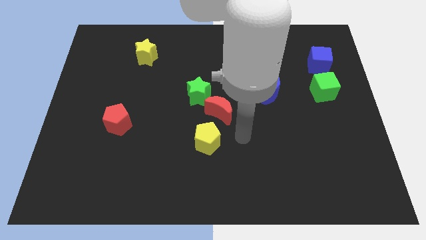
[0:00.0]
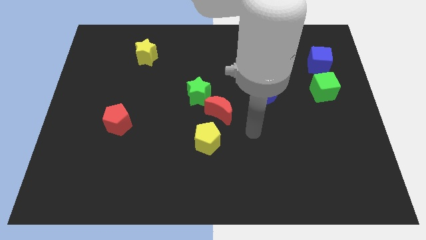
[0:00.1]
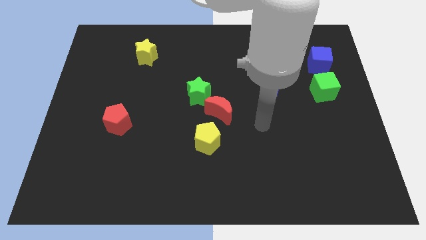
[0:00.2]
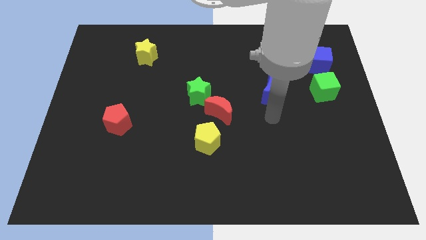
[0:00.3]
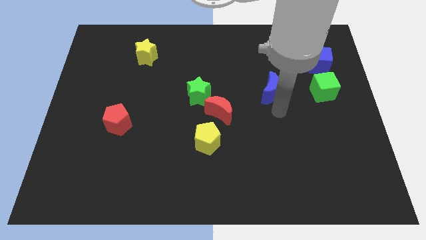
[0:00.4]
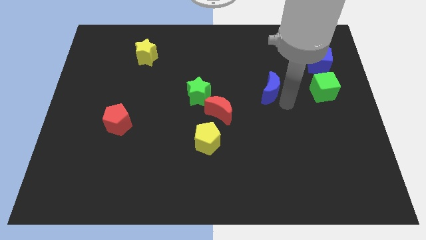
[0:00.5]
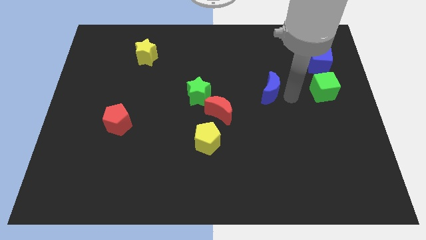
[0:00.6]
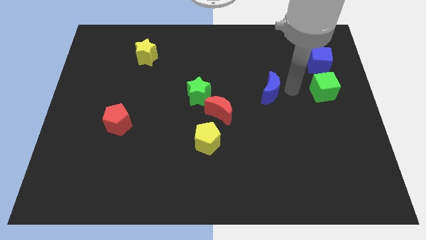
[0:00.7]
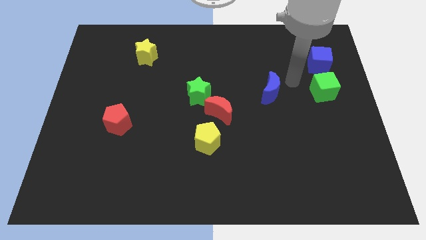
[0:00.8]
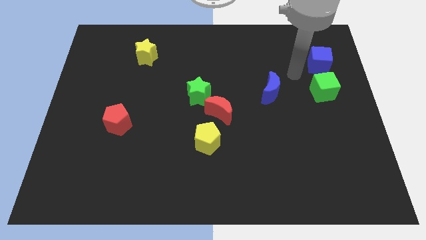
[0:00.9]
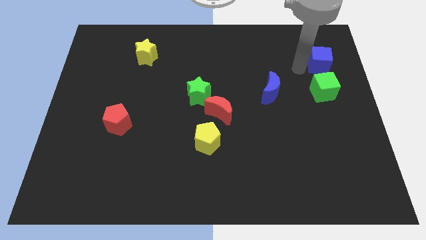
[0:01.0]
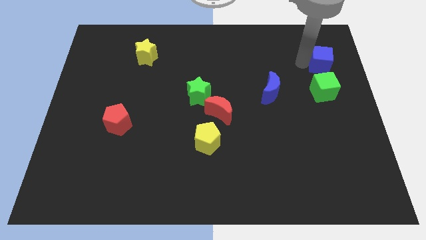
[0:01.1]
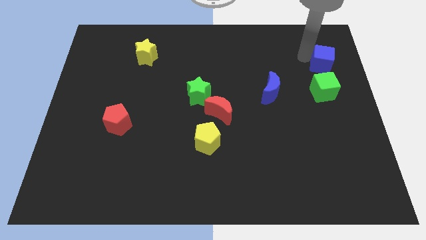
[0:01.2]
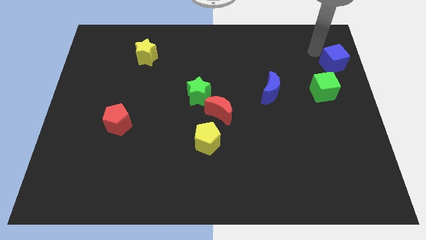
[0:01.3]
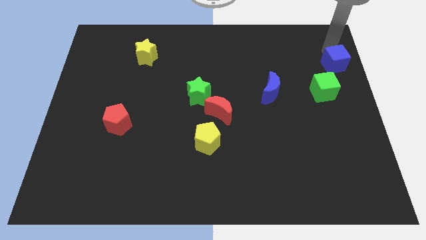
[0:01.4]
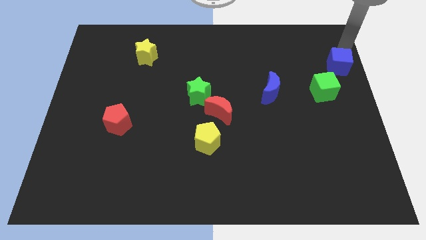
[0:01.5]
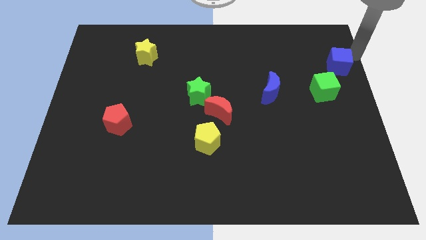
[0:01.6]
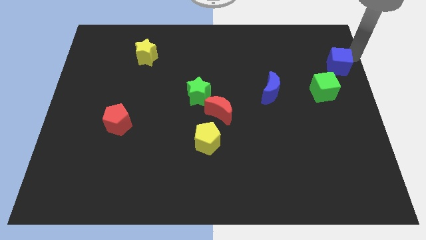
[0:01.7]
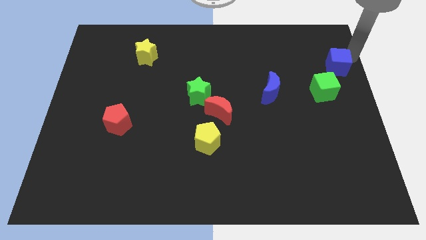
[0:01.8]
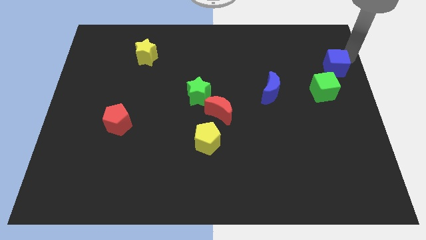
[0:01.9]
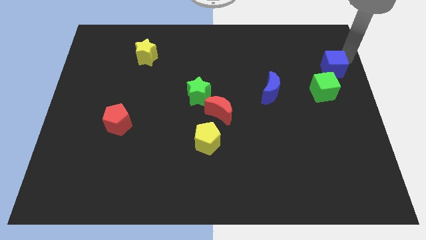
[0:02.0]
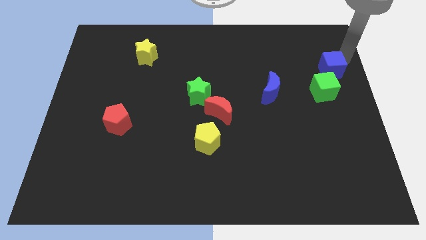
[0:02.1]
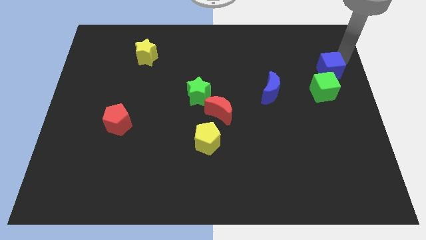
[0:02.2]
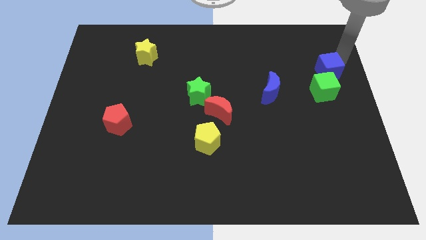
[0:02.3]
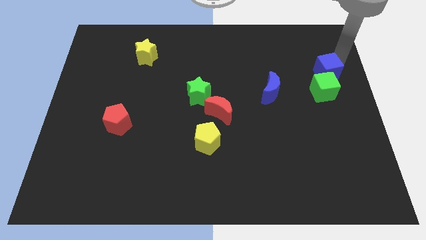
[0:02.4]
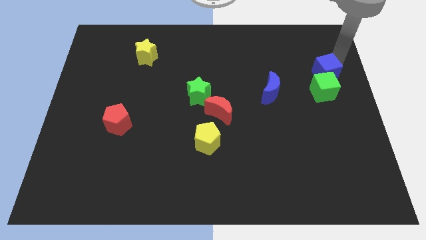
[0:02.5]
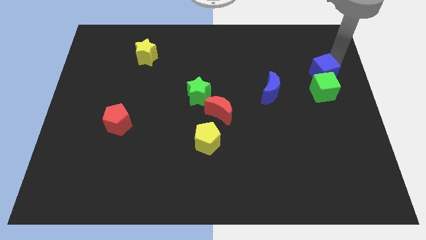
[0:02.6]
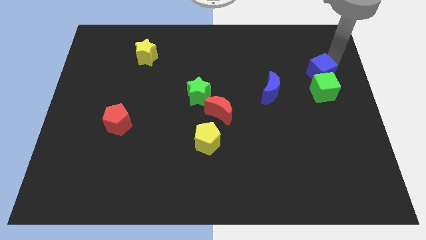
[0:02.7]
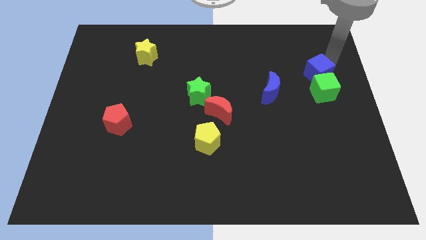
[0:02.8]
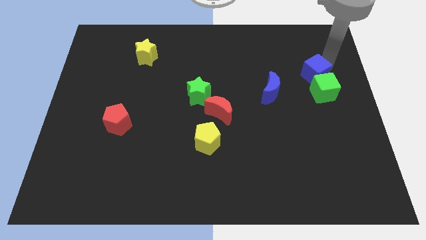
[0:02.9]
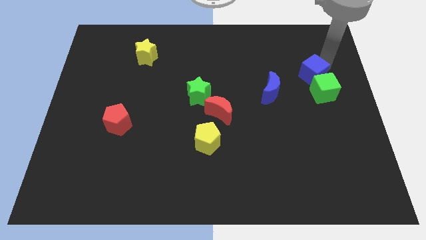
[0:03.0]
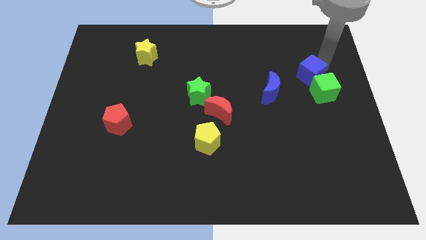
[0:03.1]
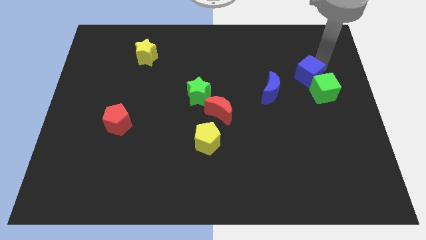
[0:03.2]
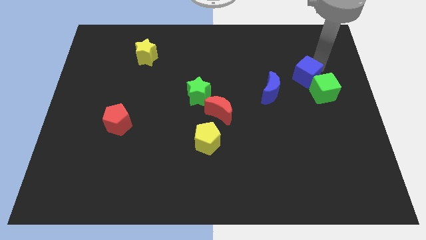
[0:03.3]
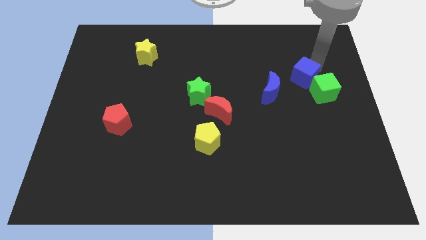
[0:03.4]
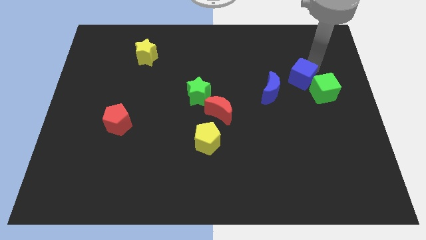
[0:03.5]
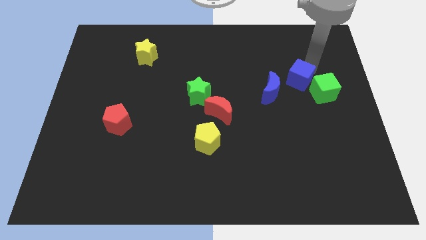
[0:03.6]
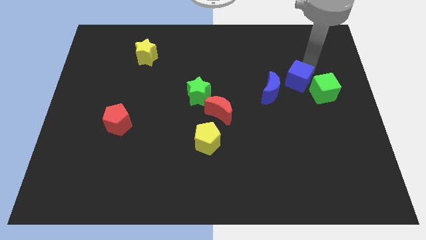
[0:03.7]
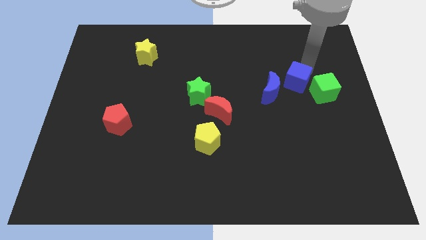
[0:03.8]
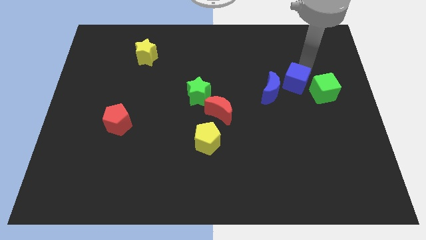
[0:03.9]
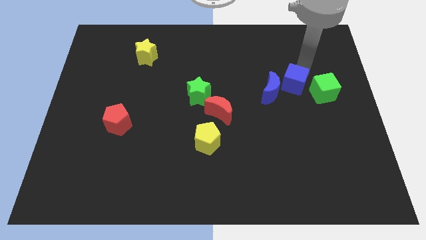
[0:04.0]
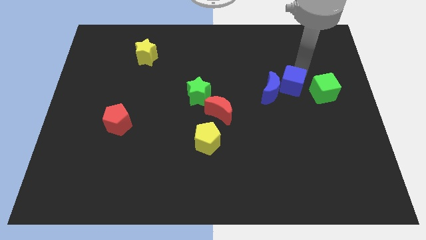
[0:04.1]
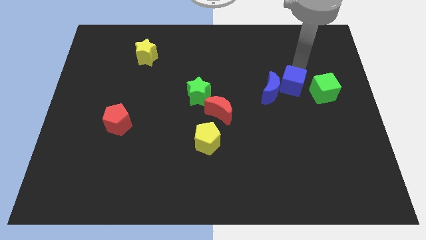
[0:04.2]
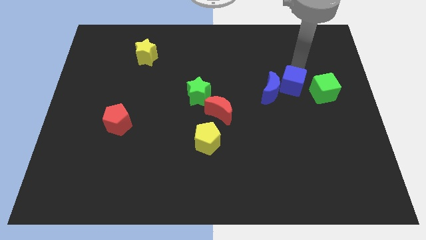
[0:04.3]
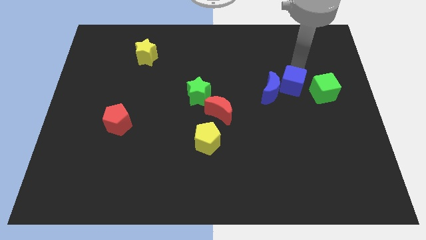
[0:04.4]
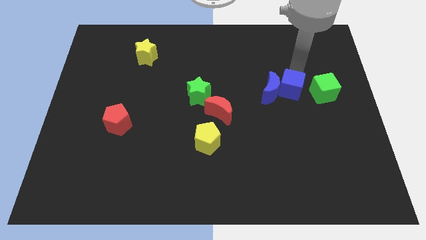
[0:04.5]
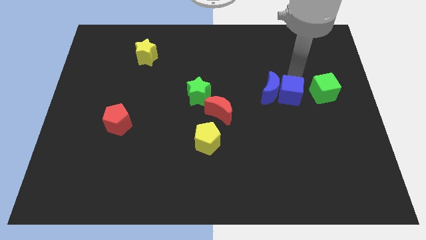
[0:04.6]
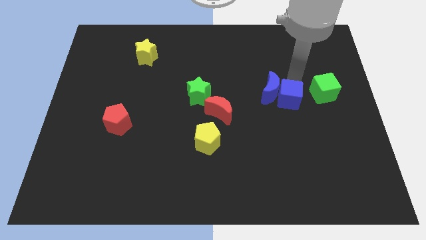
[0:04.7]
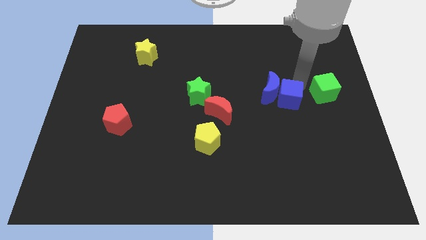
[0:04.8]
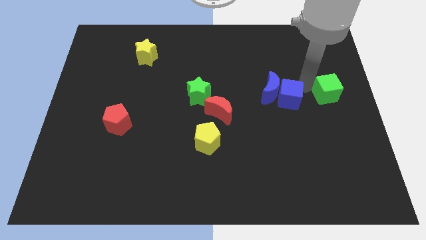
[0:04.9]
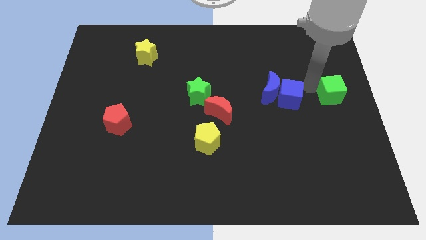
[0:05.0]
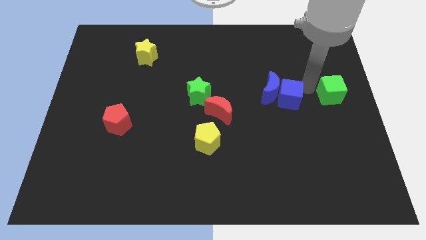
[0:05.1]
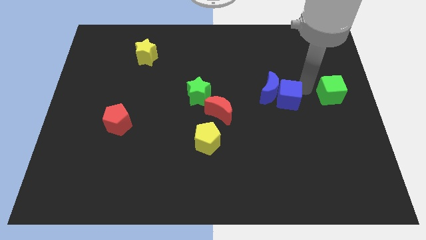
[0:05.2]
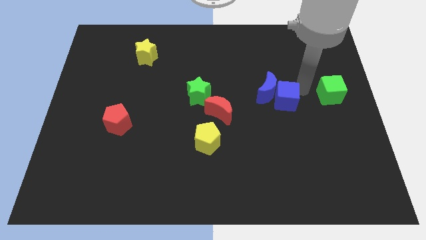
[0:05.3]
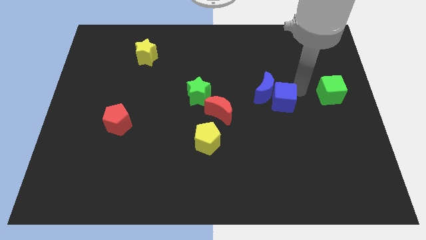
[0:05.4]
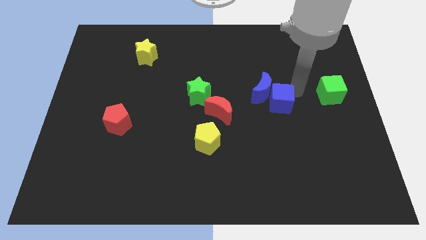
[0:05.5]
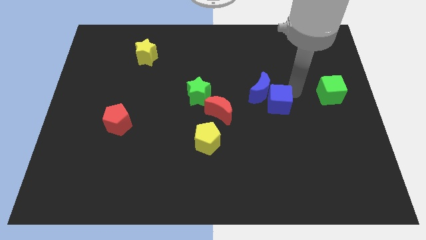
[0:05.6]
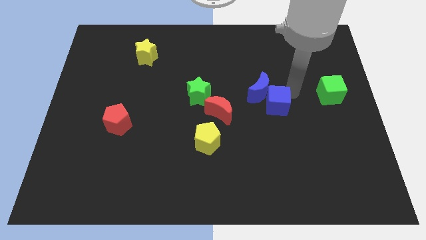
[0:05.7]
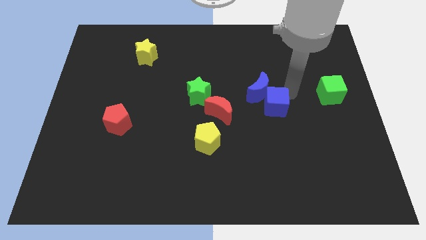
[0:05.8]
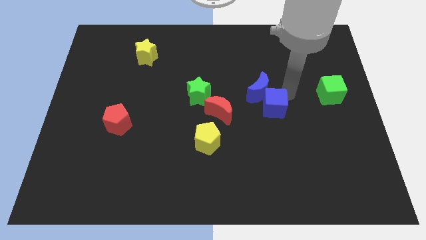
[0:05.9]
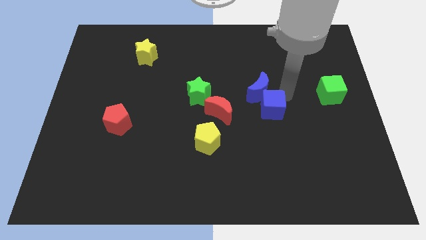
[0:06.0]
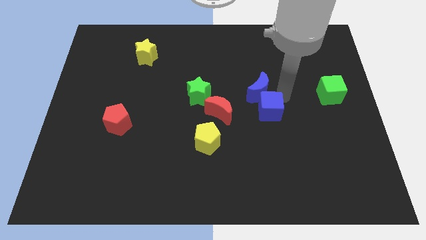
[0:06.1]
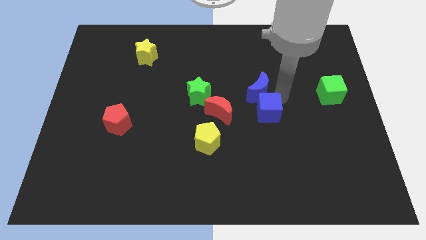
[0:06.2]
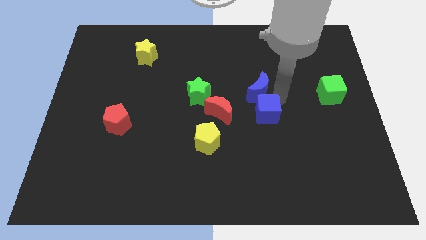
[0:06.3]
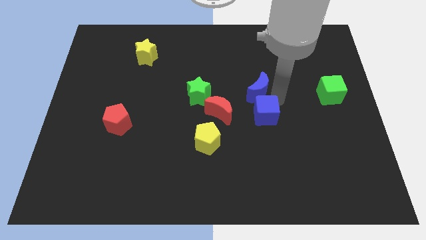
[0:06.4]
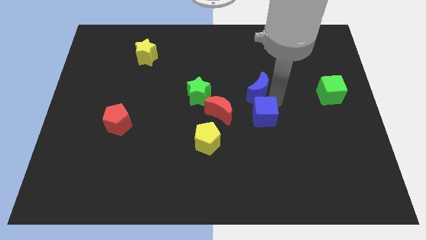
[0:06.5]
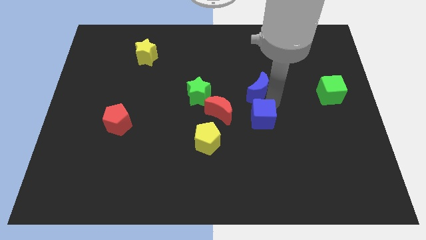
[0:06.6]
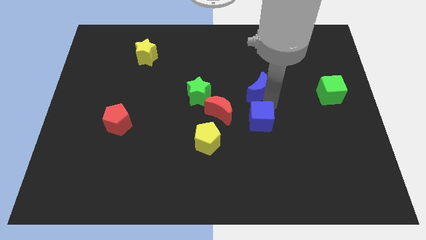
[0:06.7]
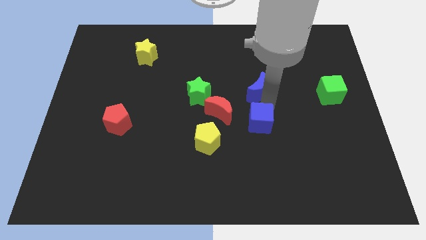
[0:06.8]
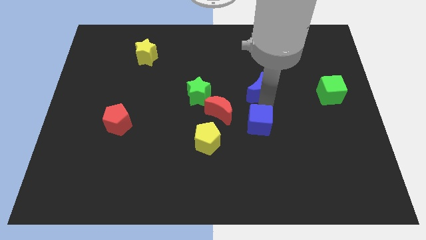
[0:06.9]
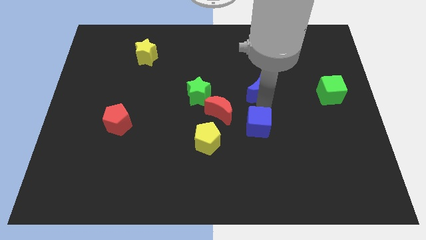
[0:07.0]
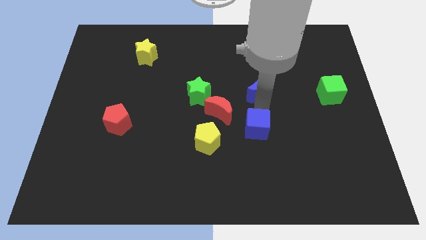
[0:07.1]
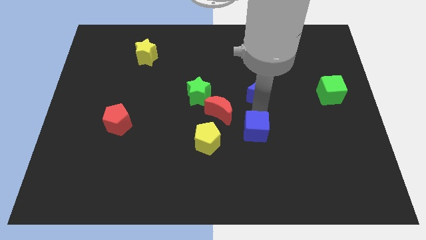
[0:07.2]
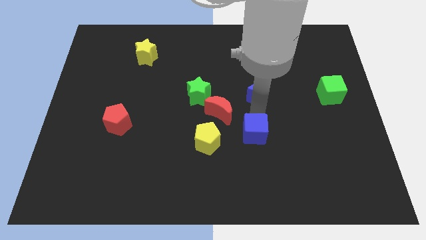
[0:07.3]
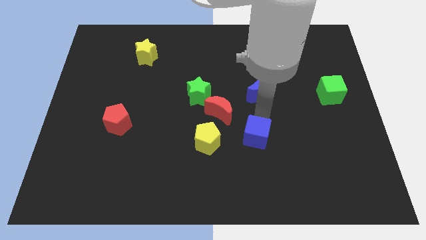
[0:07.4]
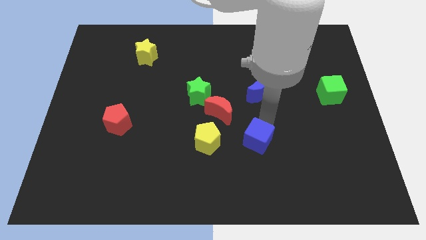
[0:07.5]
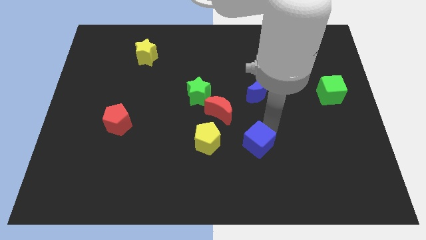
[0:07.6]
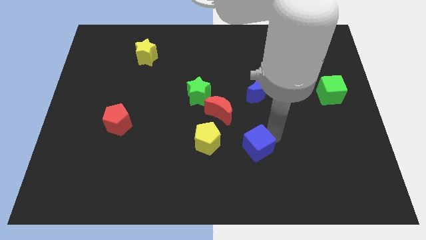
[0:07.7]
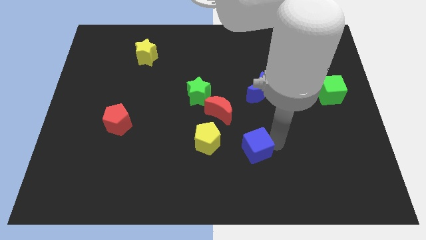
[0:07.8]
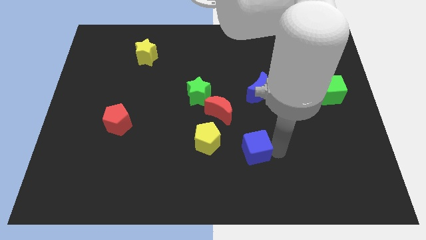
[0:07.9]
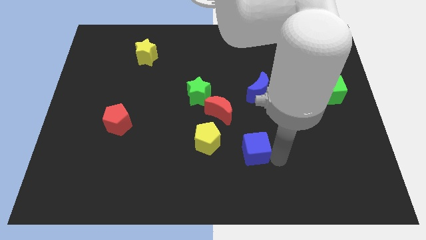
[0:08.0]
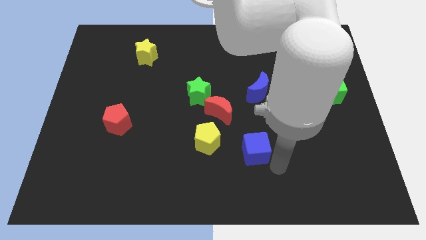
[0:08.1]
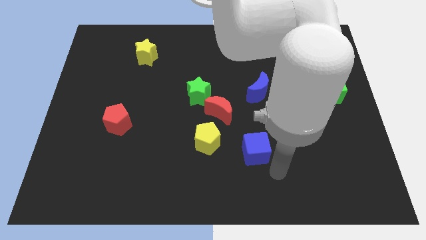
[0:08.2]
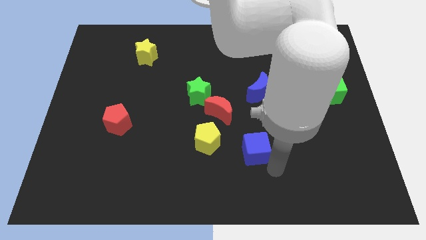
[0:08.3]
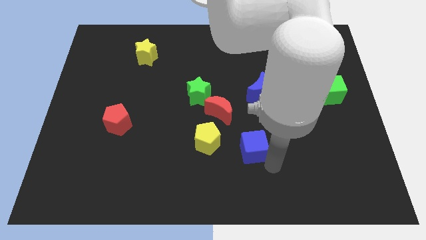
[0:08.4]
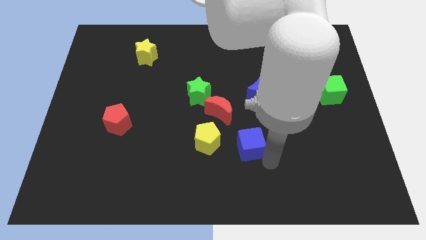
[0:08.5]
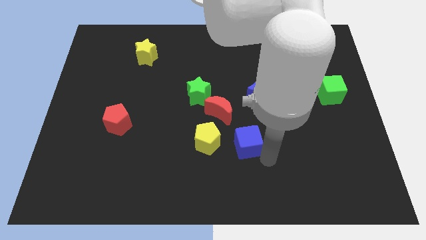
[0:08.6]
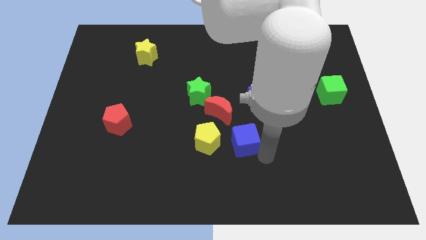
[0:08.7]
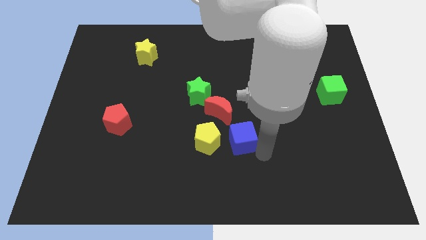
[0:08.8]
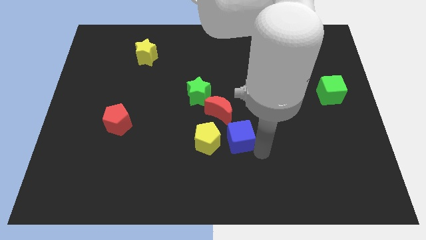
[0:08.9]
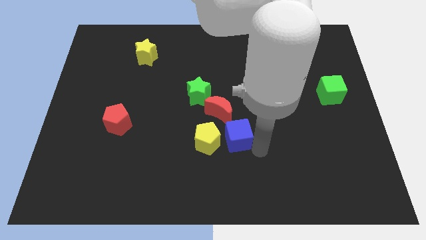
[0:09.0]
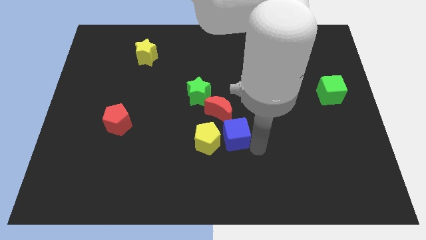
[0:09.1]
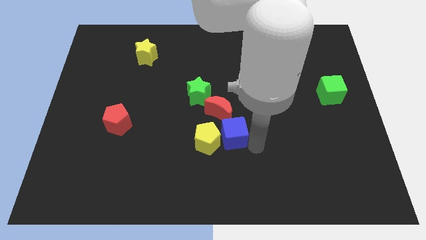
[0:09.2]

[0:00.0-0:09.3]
put the blue cube towards the yellow pentagon
